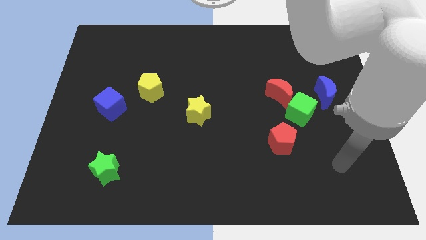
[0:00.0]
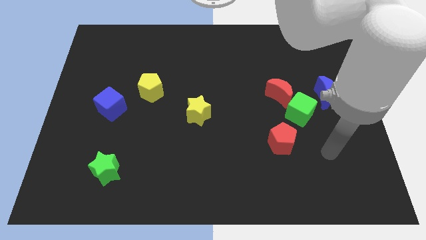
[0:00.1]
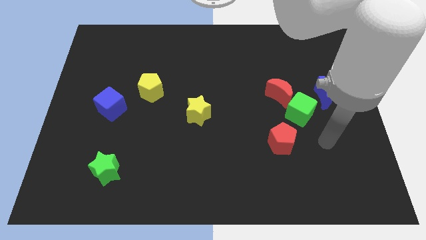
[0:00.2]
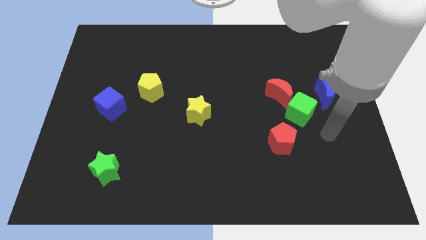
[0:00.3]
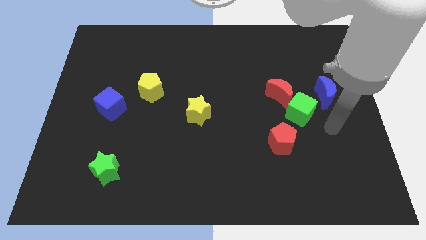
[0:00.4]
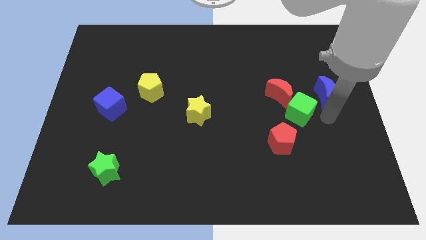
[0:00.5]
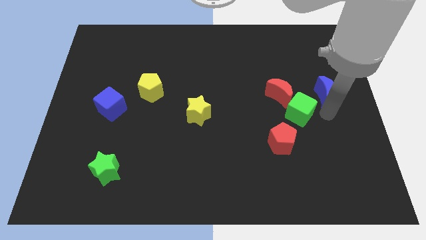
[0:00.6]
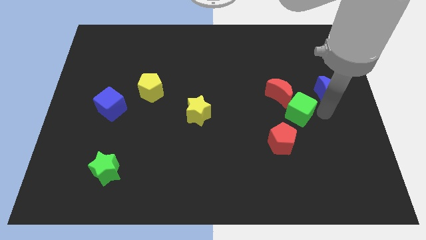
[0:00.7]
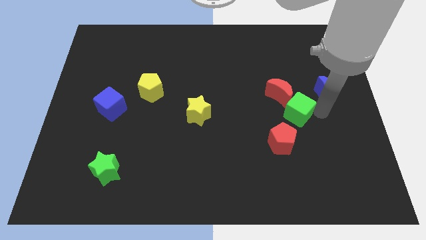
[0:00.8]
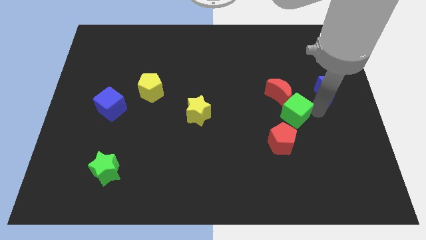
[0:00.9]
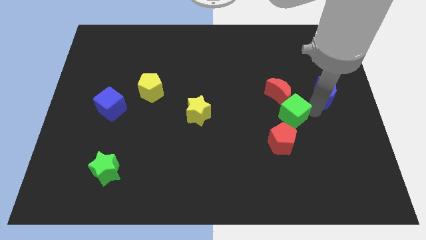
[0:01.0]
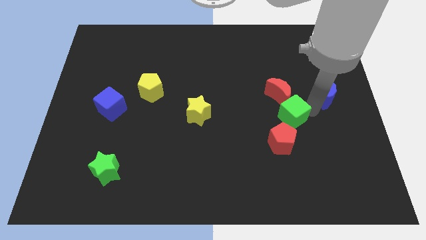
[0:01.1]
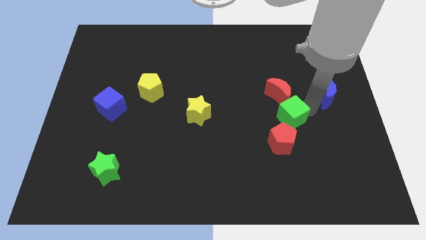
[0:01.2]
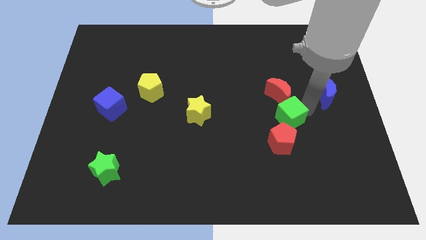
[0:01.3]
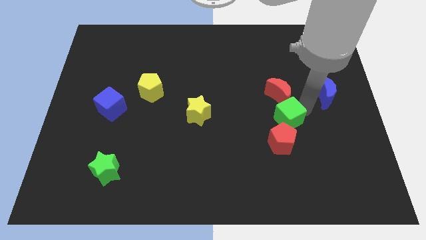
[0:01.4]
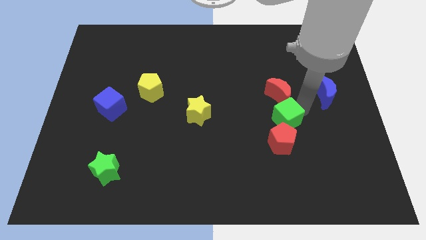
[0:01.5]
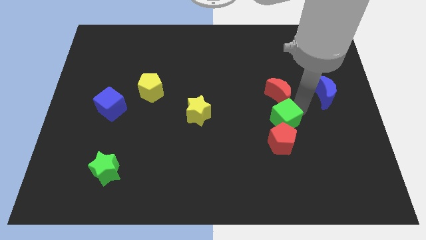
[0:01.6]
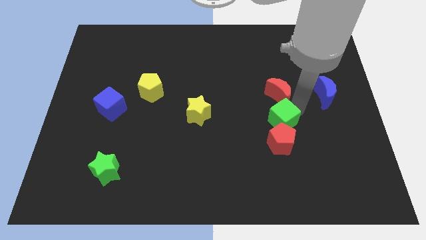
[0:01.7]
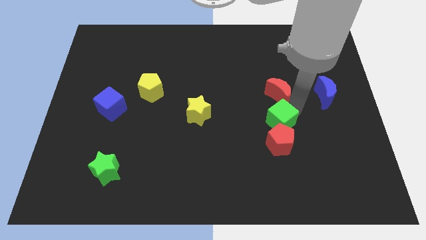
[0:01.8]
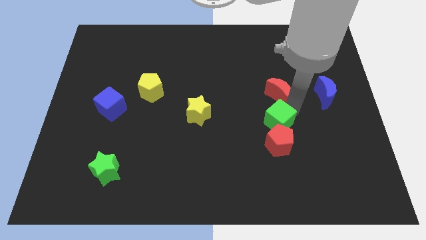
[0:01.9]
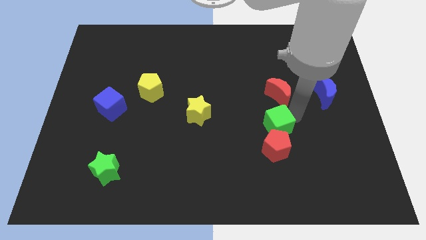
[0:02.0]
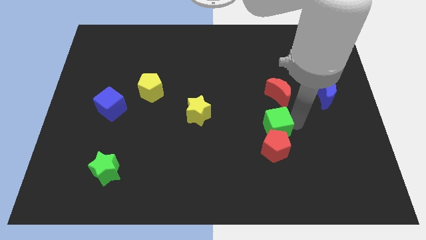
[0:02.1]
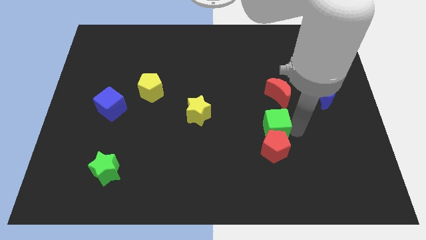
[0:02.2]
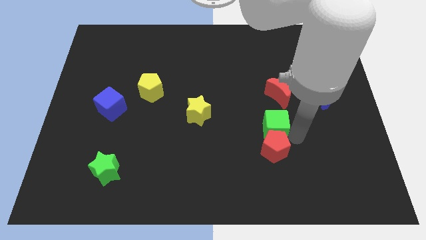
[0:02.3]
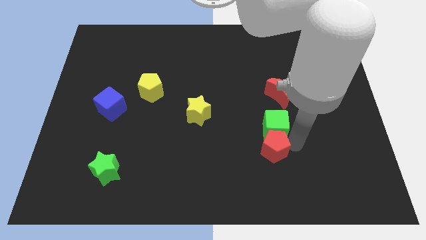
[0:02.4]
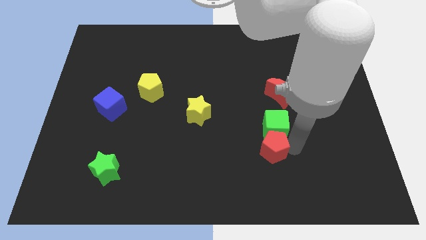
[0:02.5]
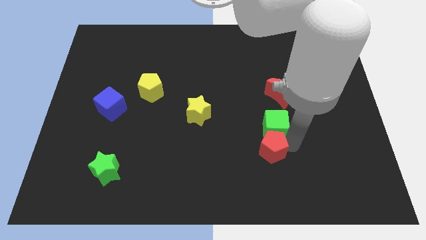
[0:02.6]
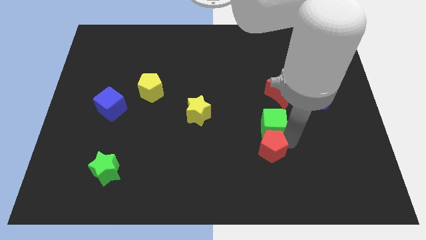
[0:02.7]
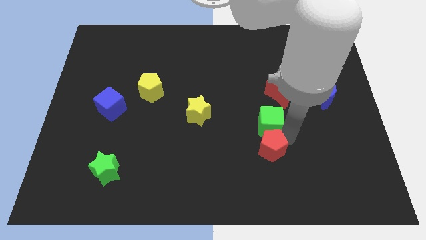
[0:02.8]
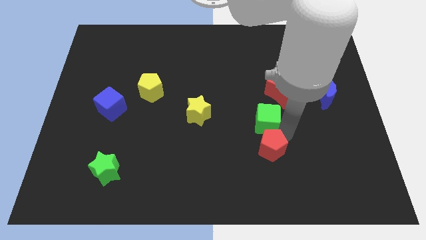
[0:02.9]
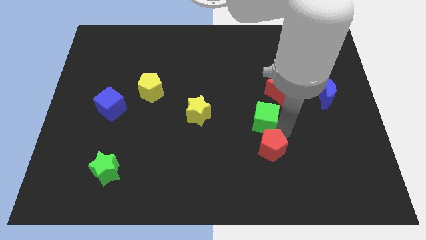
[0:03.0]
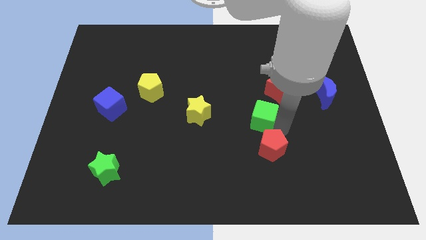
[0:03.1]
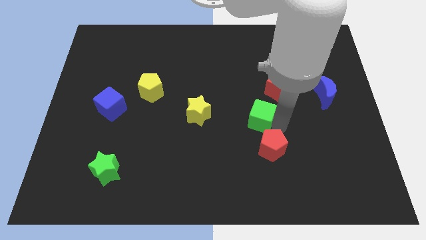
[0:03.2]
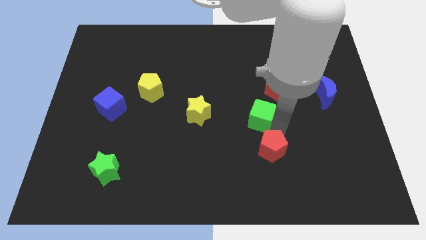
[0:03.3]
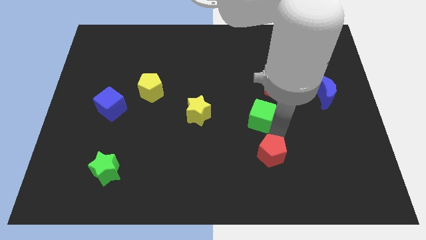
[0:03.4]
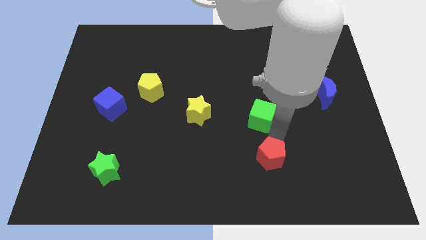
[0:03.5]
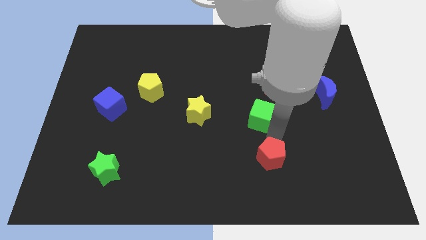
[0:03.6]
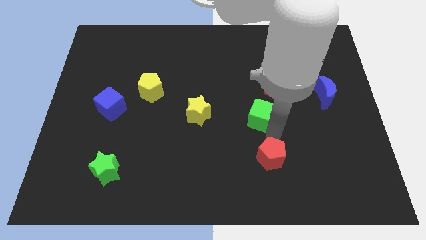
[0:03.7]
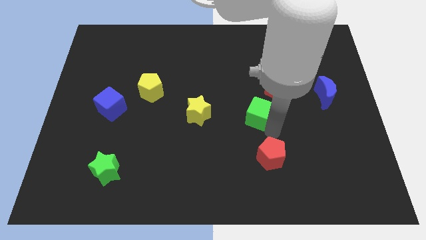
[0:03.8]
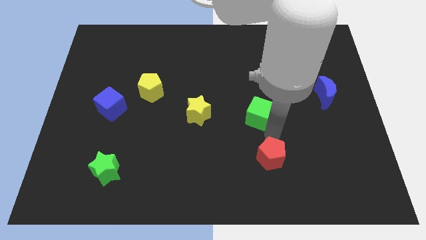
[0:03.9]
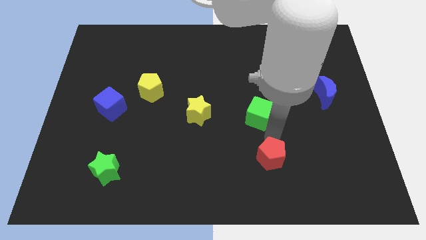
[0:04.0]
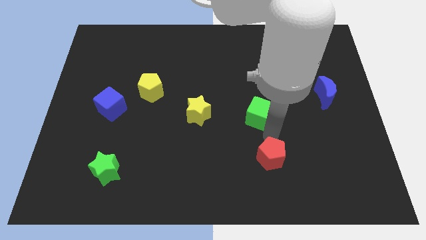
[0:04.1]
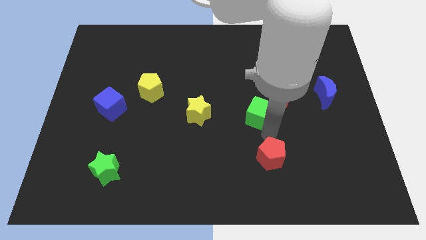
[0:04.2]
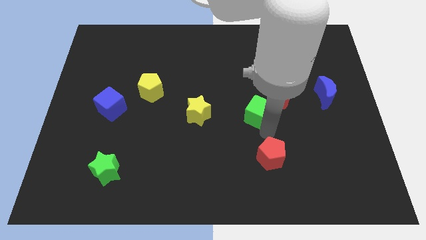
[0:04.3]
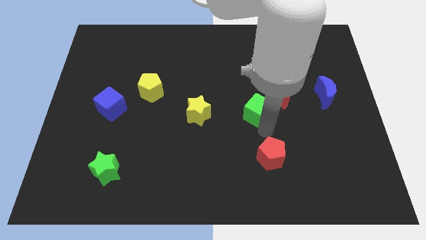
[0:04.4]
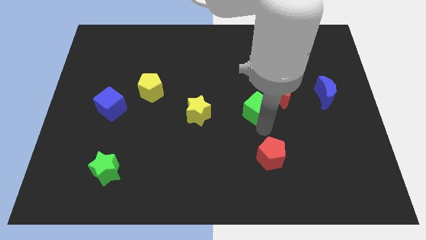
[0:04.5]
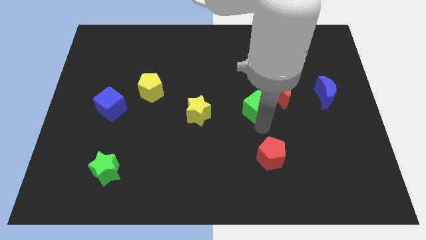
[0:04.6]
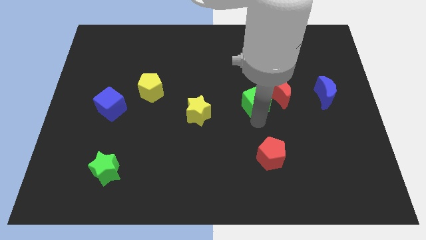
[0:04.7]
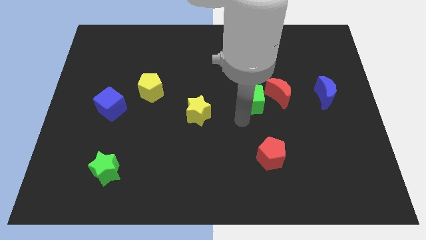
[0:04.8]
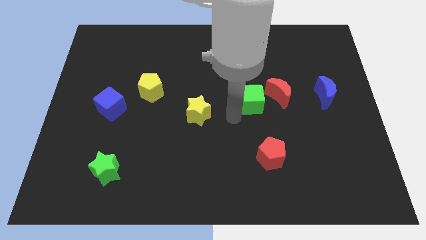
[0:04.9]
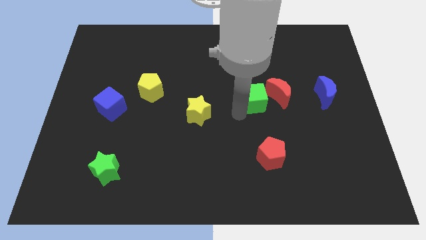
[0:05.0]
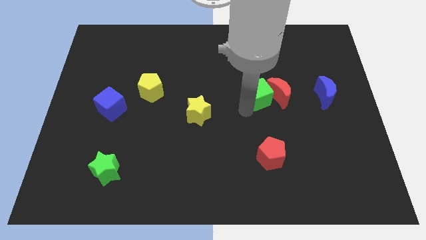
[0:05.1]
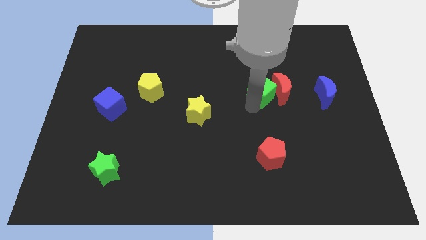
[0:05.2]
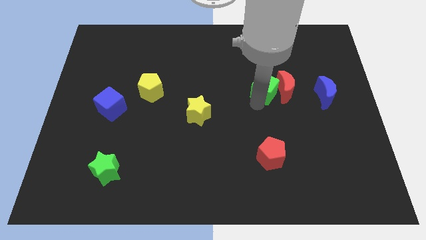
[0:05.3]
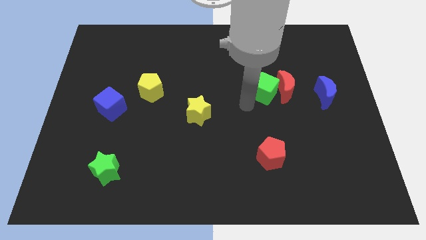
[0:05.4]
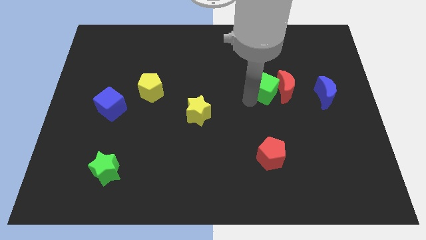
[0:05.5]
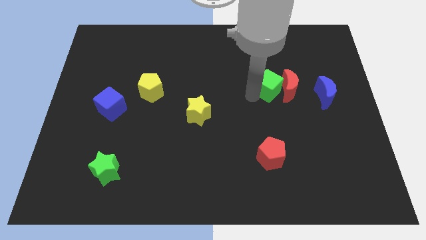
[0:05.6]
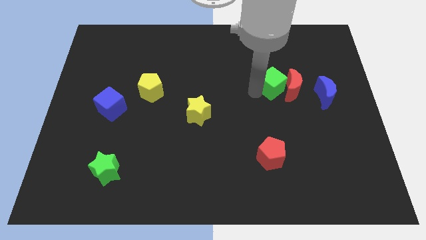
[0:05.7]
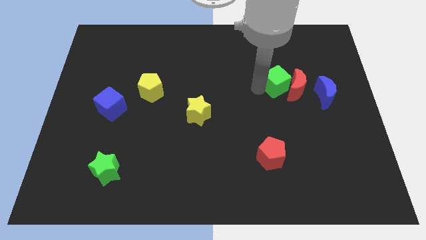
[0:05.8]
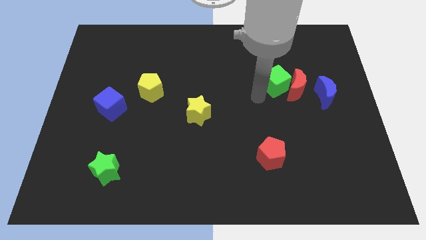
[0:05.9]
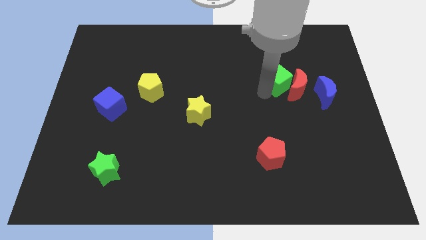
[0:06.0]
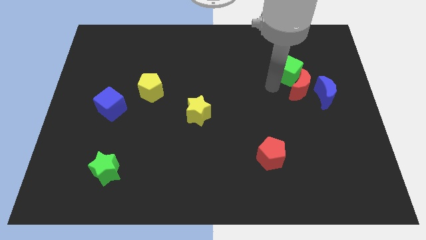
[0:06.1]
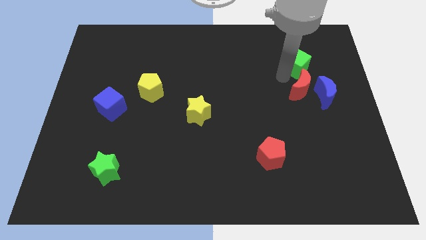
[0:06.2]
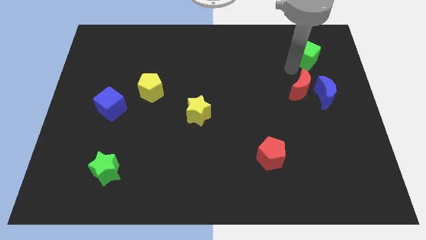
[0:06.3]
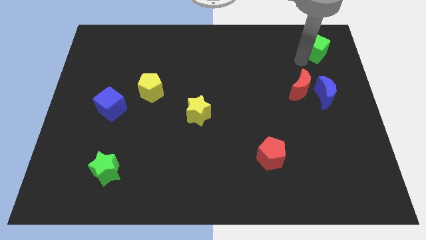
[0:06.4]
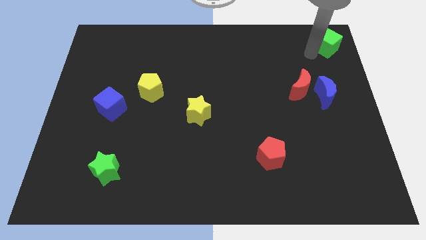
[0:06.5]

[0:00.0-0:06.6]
push the green cube to the top right of the board
